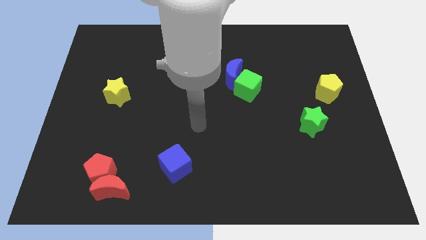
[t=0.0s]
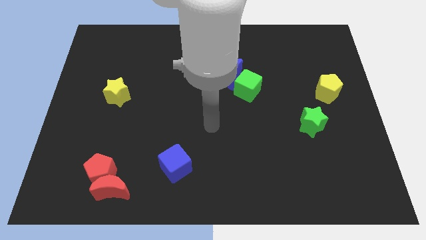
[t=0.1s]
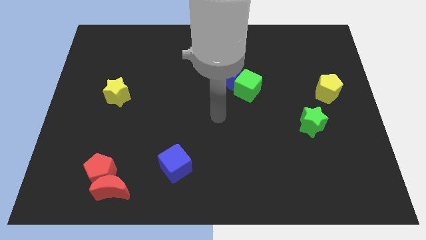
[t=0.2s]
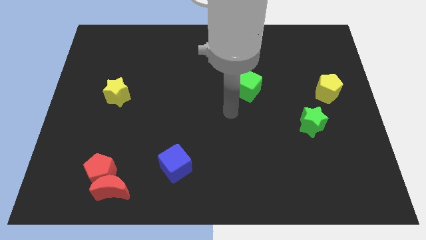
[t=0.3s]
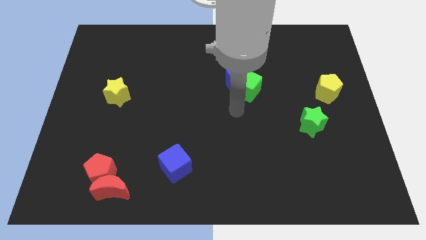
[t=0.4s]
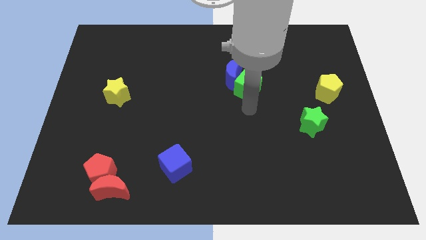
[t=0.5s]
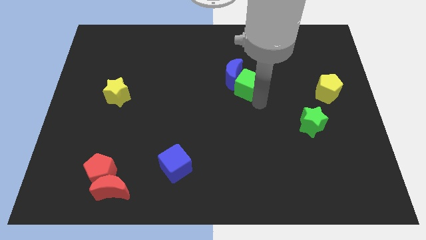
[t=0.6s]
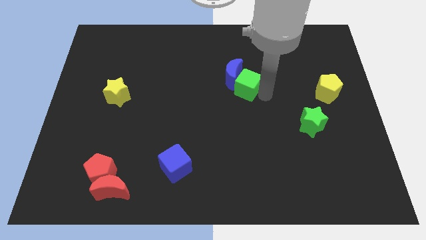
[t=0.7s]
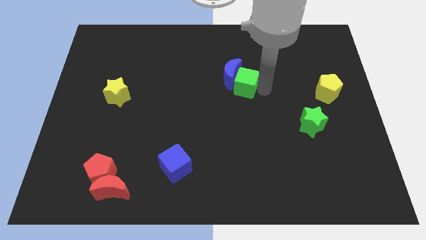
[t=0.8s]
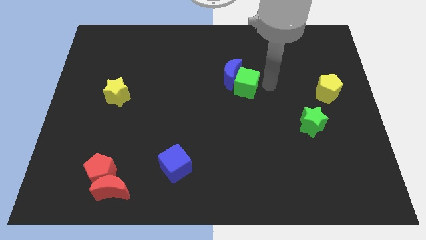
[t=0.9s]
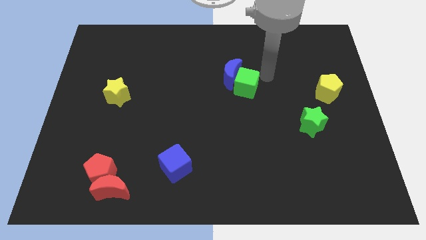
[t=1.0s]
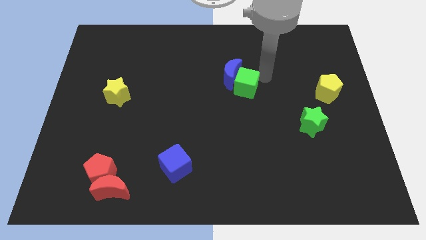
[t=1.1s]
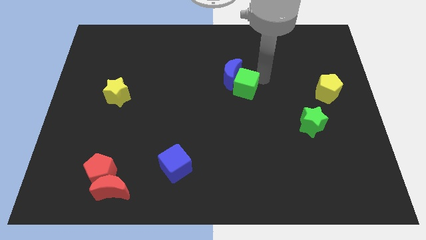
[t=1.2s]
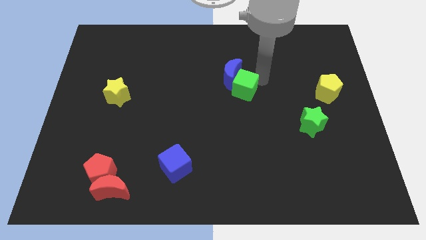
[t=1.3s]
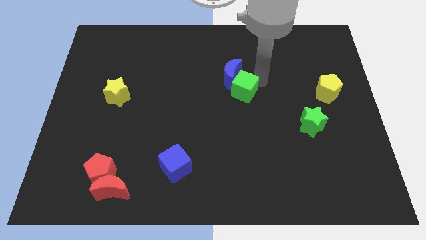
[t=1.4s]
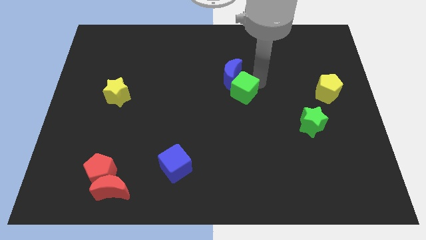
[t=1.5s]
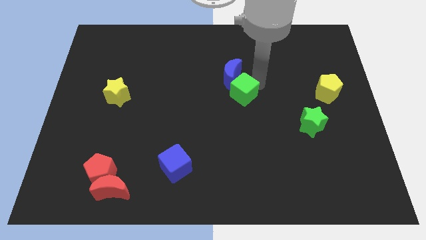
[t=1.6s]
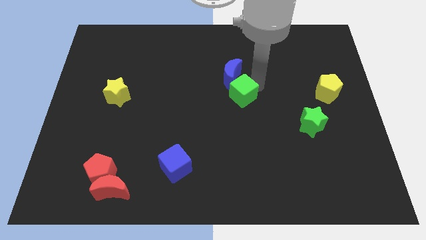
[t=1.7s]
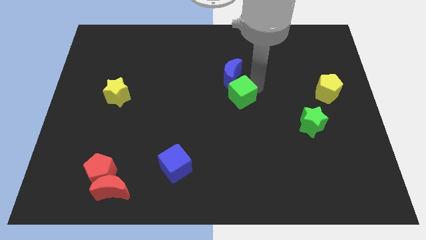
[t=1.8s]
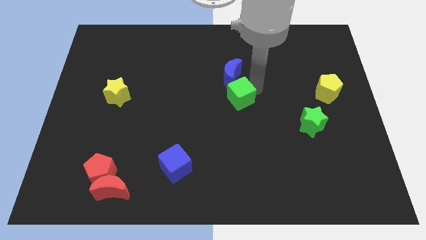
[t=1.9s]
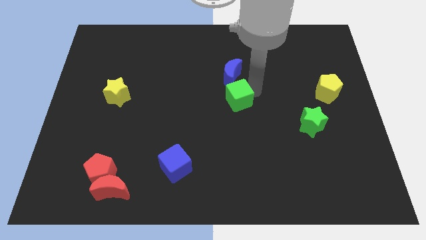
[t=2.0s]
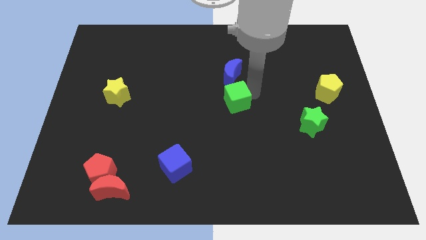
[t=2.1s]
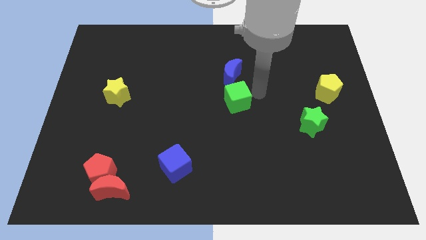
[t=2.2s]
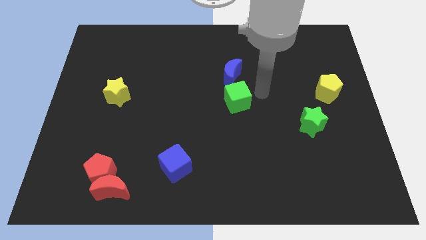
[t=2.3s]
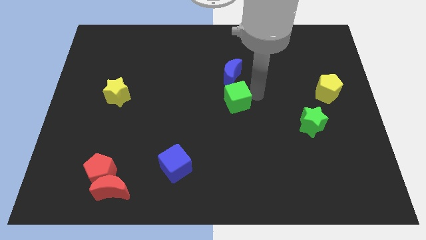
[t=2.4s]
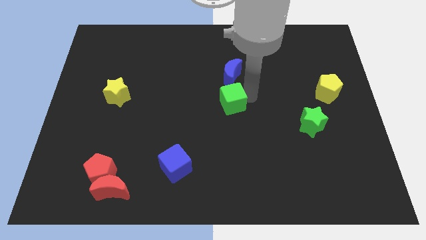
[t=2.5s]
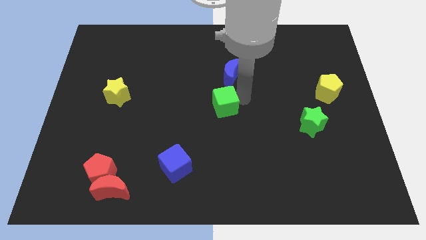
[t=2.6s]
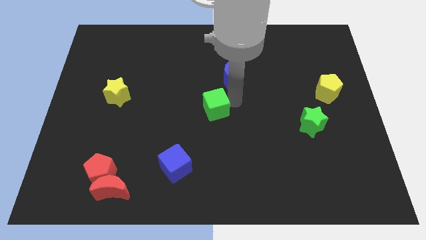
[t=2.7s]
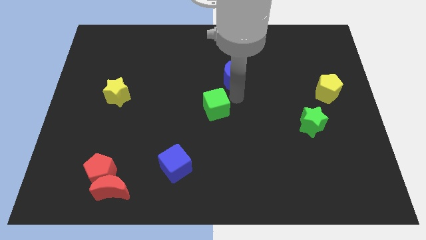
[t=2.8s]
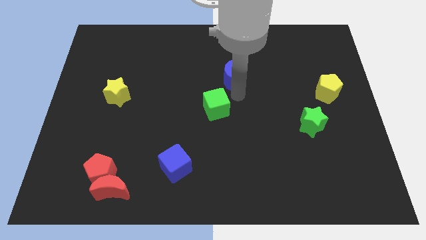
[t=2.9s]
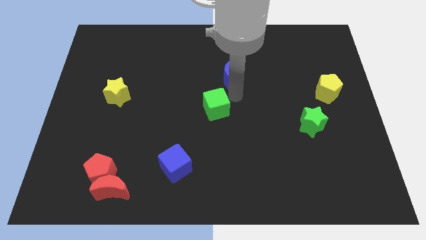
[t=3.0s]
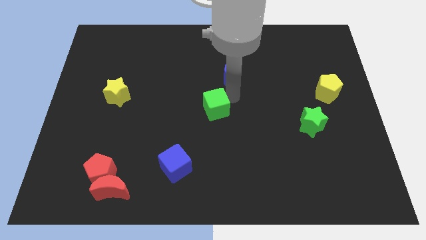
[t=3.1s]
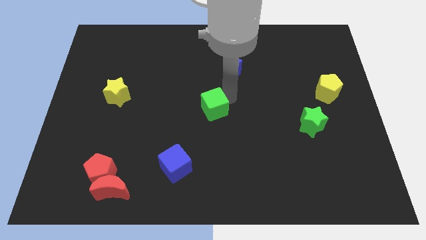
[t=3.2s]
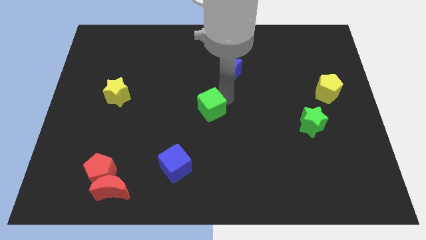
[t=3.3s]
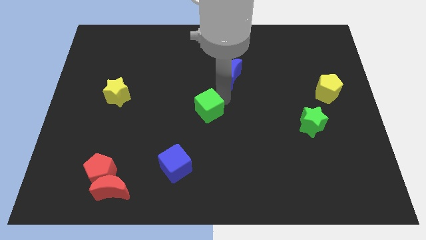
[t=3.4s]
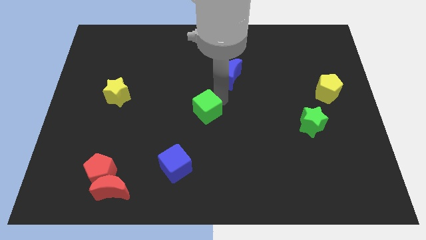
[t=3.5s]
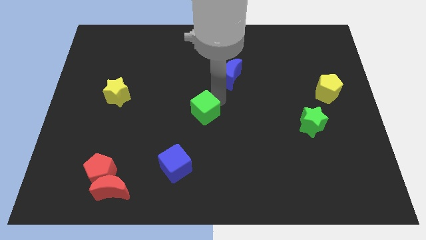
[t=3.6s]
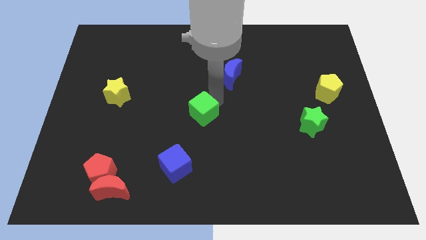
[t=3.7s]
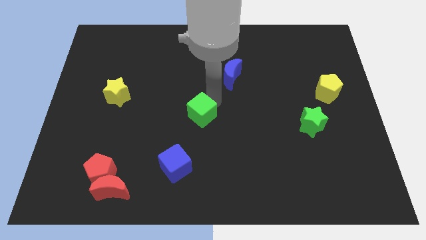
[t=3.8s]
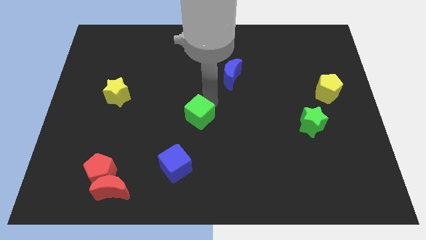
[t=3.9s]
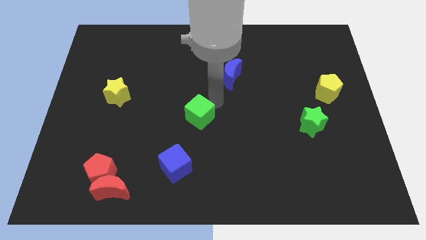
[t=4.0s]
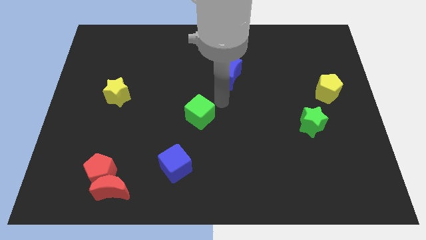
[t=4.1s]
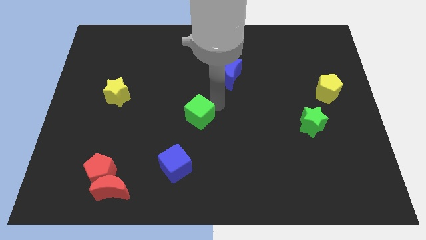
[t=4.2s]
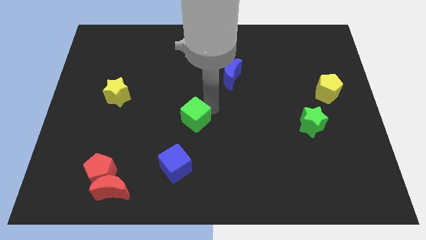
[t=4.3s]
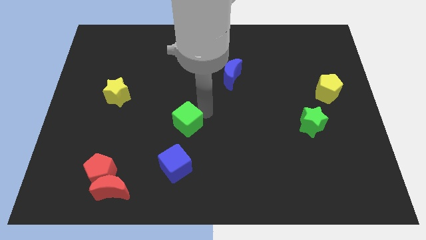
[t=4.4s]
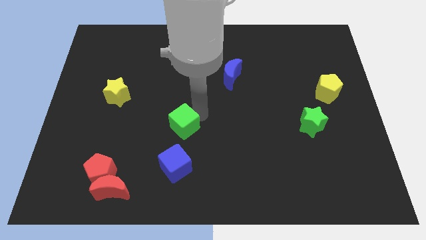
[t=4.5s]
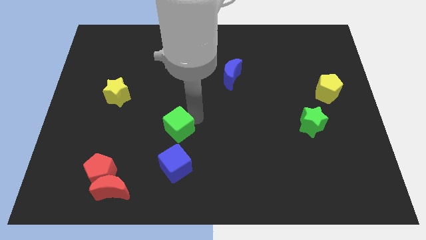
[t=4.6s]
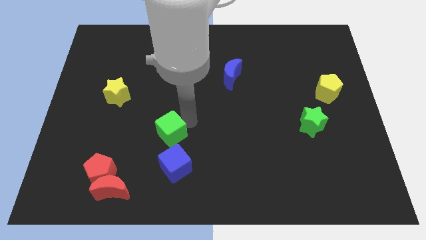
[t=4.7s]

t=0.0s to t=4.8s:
slide the green cube to the top left side of the blue cube

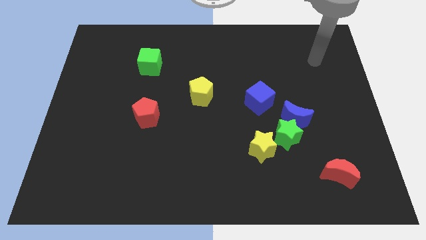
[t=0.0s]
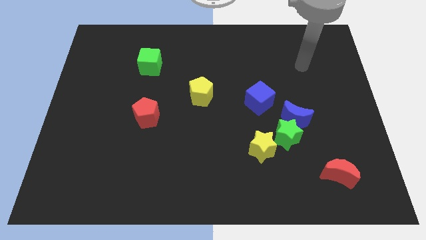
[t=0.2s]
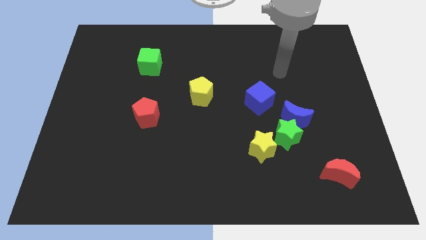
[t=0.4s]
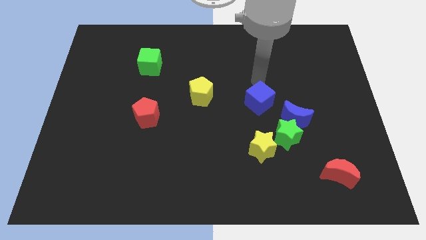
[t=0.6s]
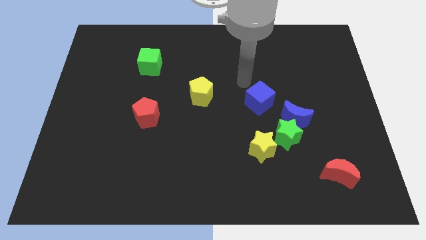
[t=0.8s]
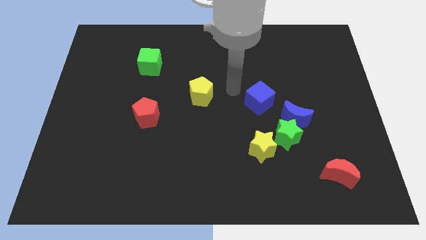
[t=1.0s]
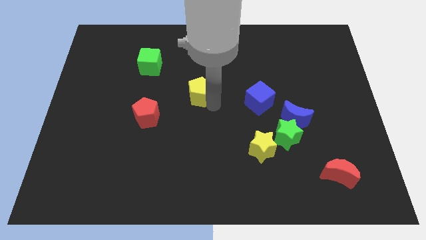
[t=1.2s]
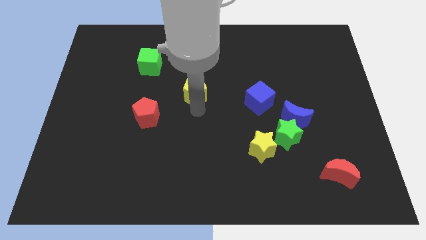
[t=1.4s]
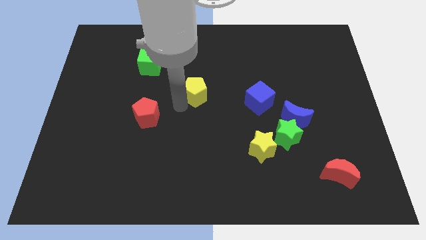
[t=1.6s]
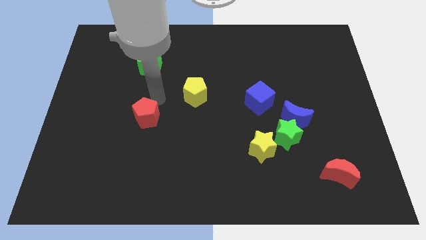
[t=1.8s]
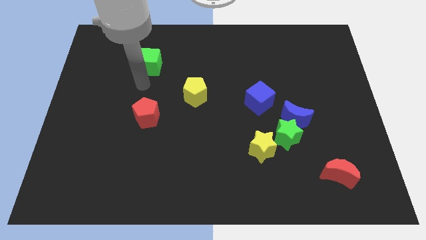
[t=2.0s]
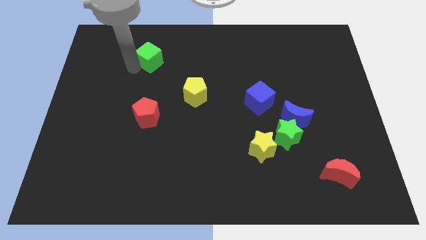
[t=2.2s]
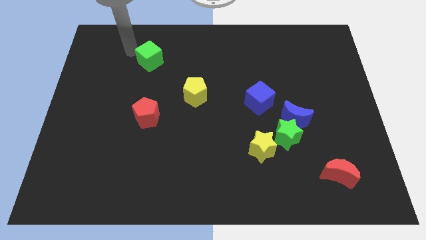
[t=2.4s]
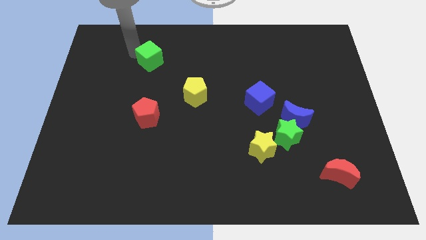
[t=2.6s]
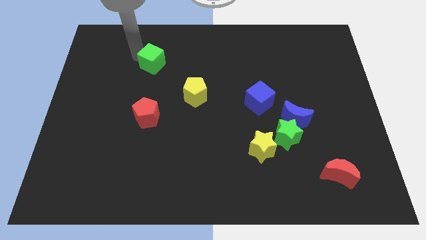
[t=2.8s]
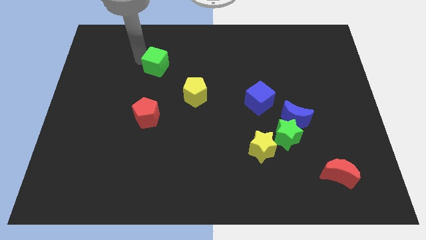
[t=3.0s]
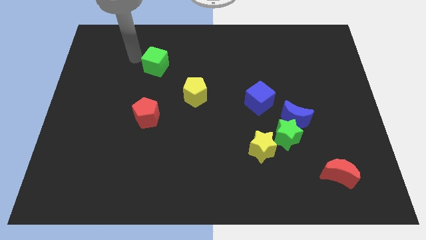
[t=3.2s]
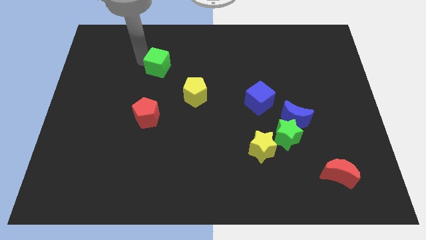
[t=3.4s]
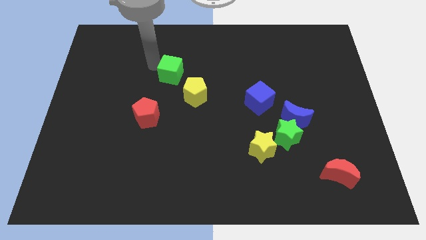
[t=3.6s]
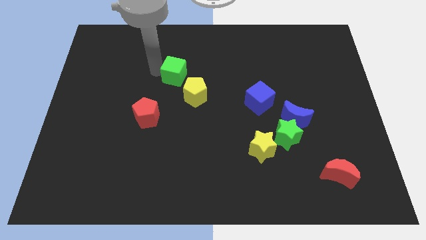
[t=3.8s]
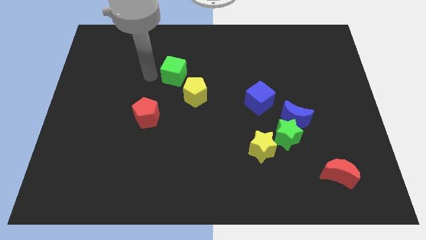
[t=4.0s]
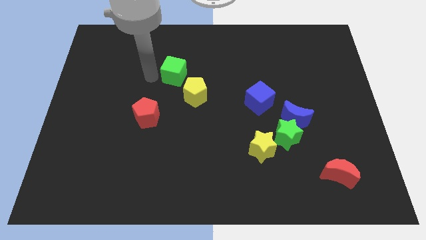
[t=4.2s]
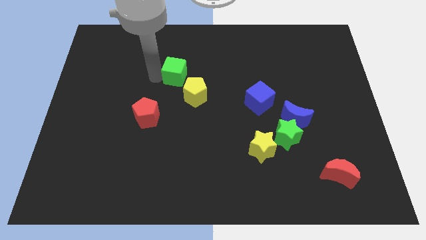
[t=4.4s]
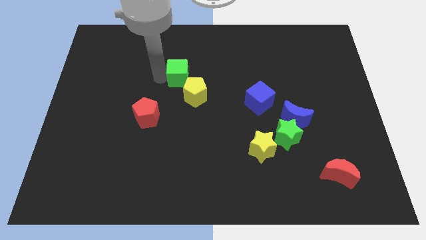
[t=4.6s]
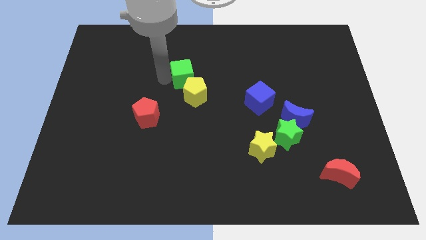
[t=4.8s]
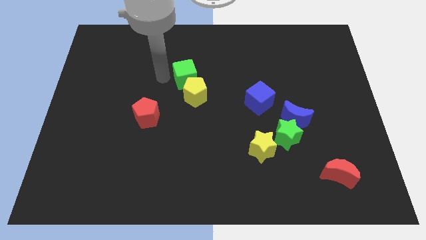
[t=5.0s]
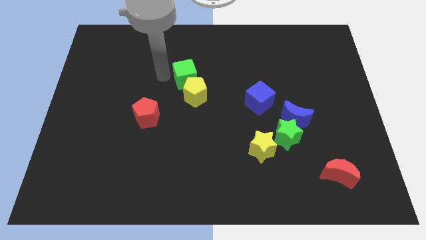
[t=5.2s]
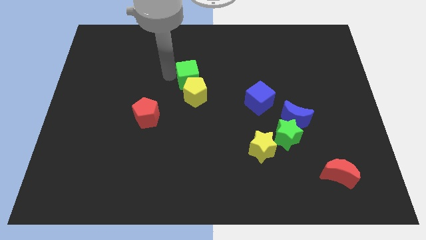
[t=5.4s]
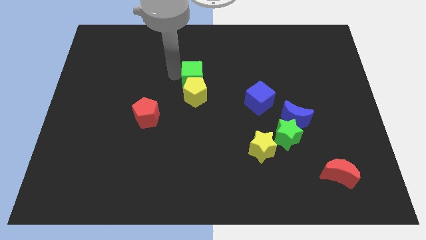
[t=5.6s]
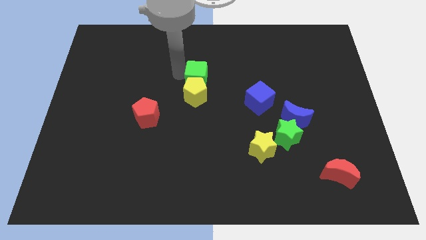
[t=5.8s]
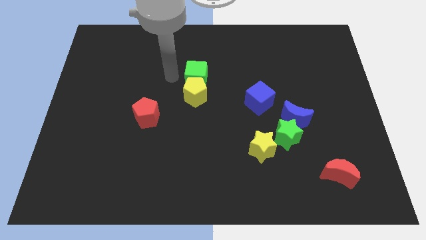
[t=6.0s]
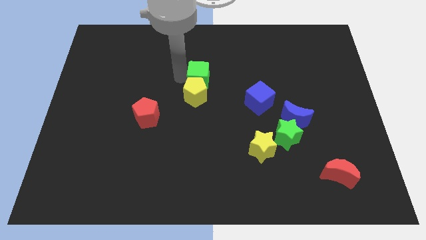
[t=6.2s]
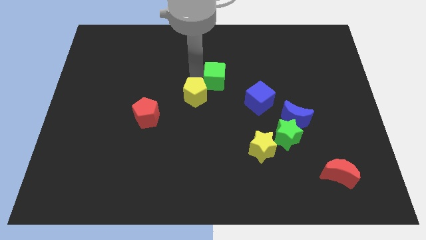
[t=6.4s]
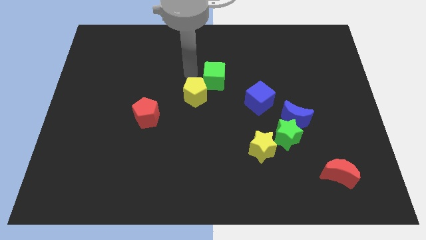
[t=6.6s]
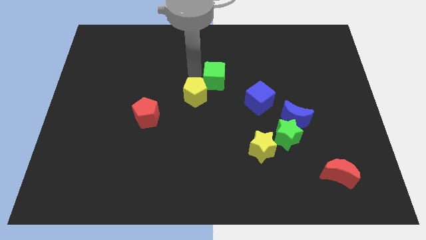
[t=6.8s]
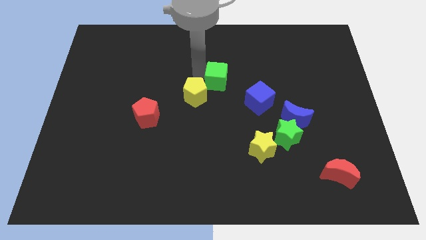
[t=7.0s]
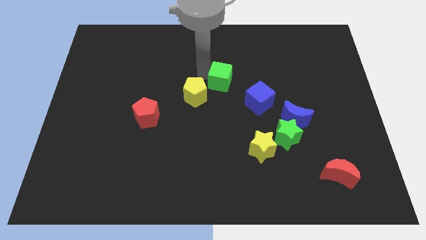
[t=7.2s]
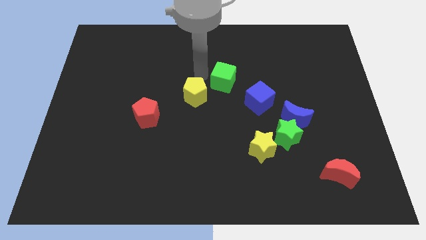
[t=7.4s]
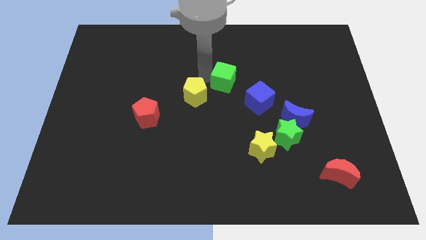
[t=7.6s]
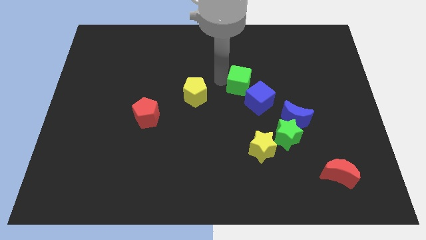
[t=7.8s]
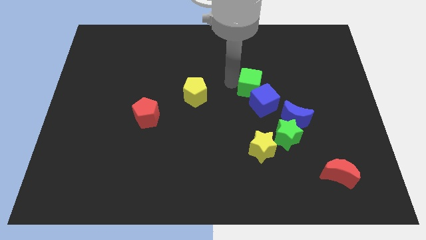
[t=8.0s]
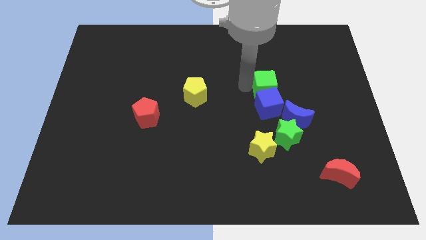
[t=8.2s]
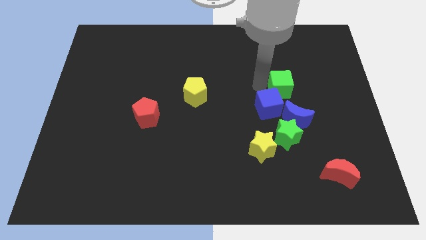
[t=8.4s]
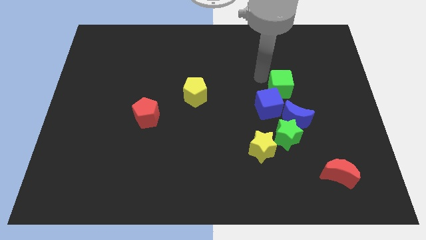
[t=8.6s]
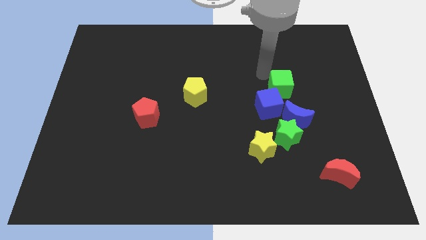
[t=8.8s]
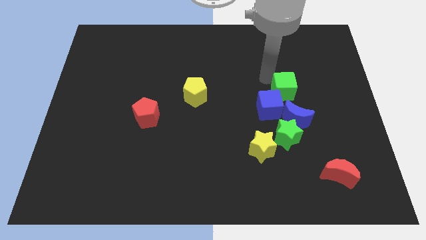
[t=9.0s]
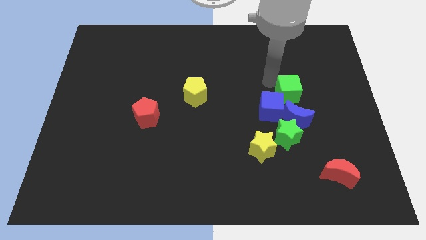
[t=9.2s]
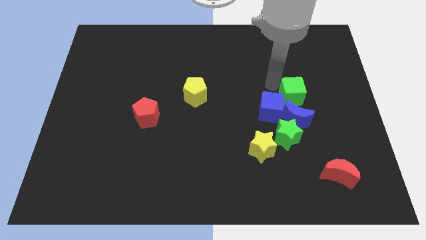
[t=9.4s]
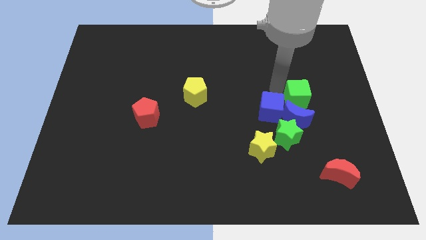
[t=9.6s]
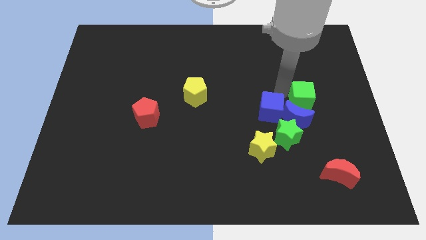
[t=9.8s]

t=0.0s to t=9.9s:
slide the green cube to the top right of the green star
